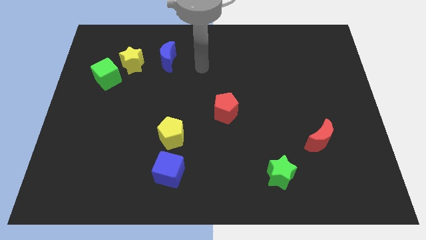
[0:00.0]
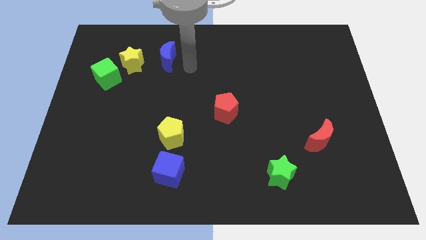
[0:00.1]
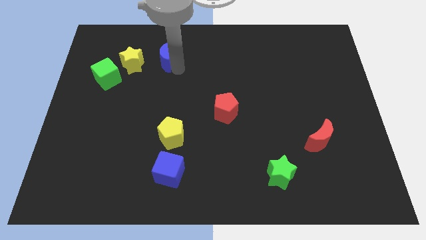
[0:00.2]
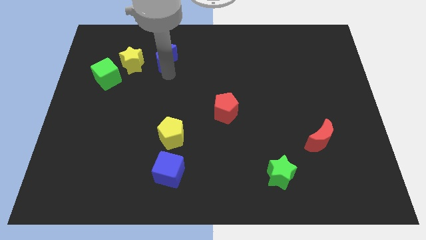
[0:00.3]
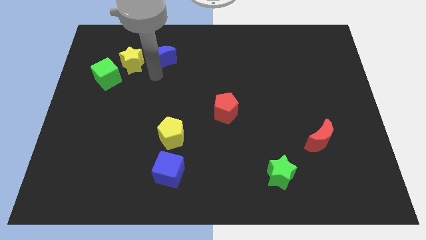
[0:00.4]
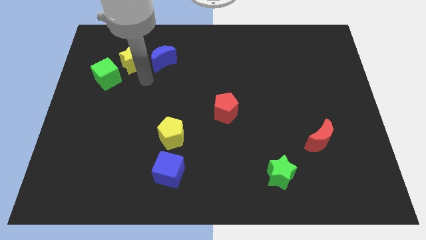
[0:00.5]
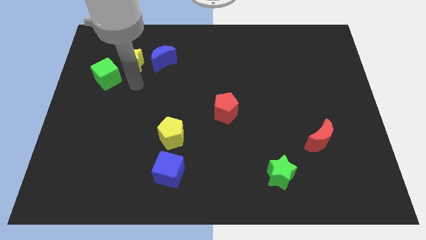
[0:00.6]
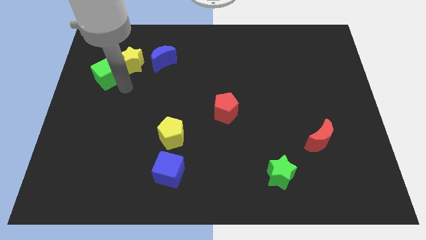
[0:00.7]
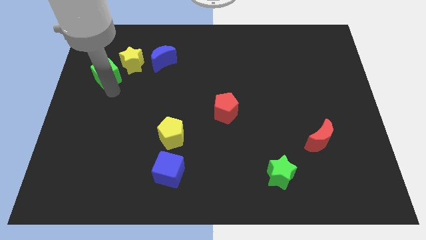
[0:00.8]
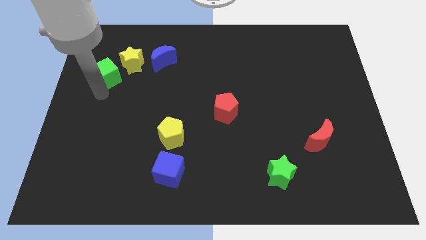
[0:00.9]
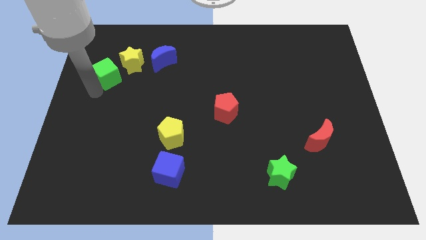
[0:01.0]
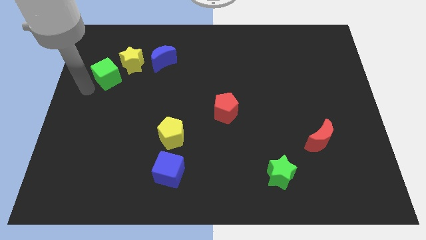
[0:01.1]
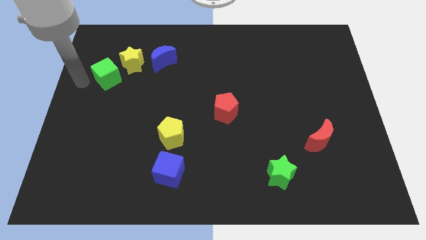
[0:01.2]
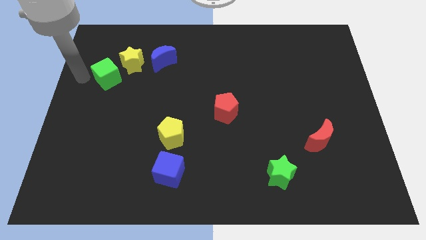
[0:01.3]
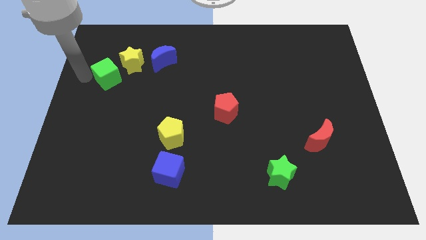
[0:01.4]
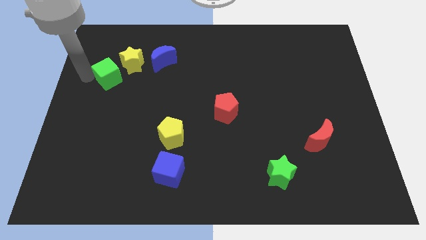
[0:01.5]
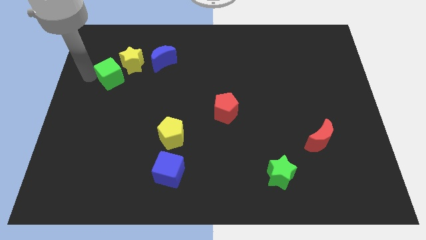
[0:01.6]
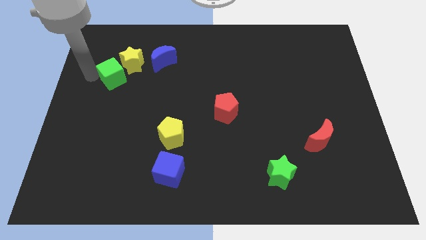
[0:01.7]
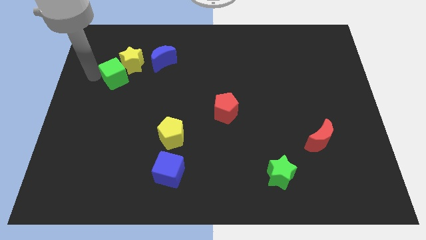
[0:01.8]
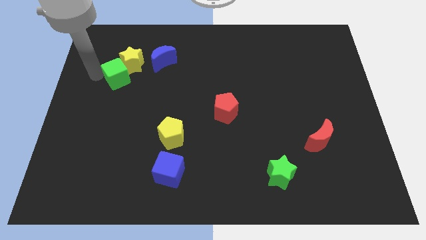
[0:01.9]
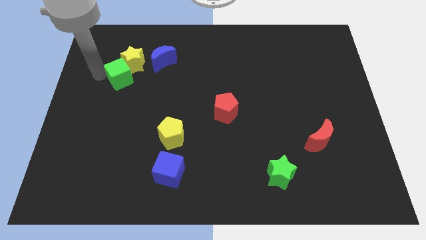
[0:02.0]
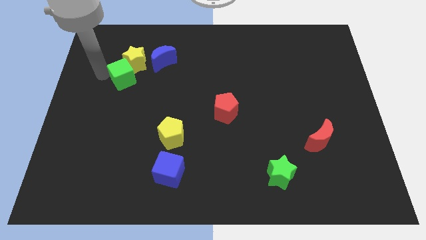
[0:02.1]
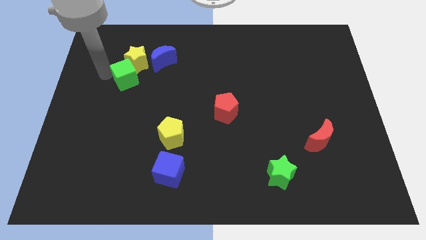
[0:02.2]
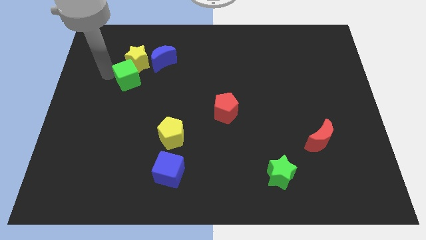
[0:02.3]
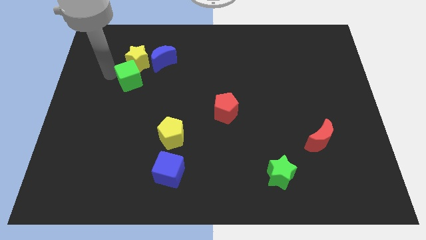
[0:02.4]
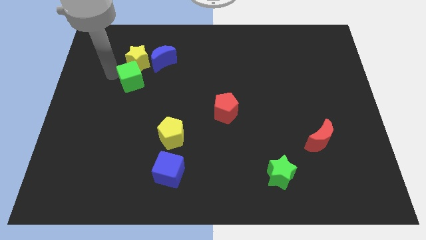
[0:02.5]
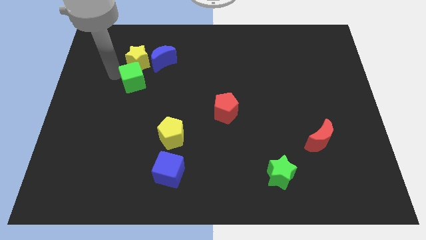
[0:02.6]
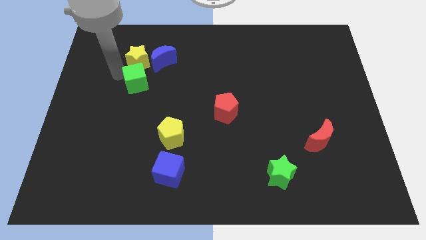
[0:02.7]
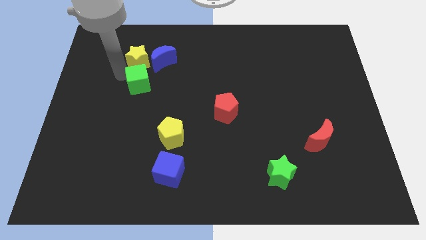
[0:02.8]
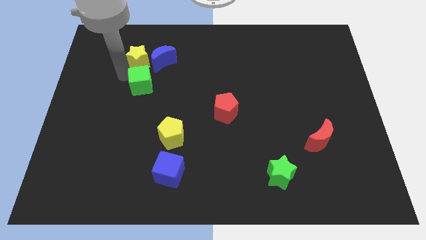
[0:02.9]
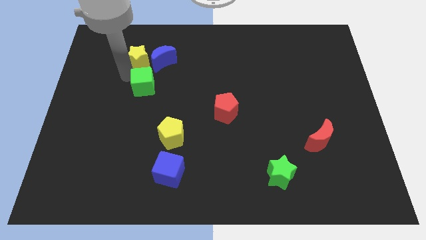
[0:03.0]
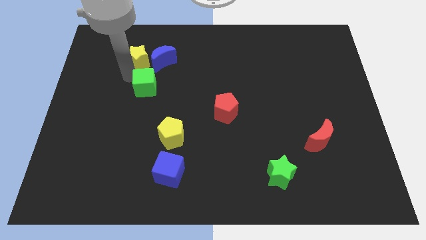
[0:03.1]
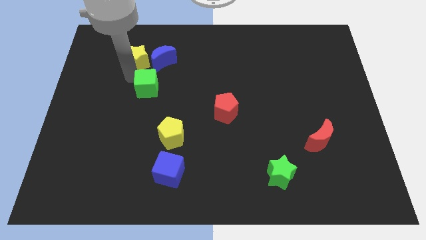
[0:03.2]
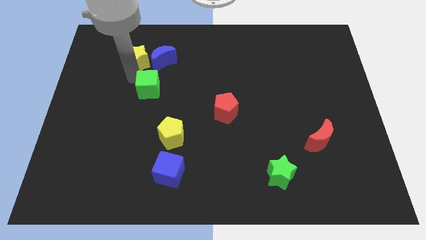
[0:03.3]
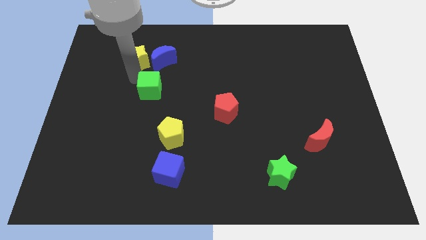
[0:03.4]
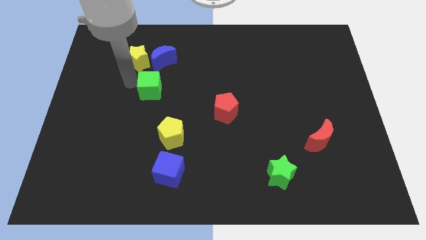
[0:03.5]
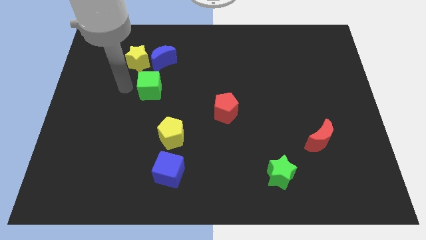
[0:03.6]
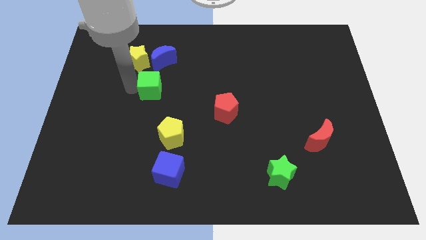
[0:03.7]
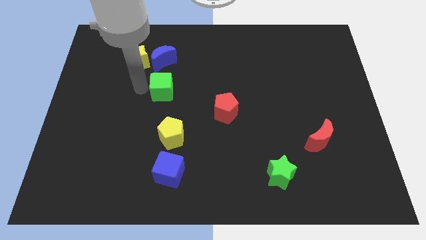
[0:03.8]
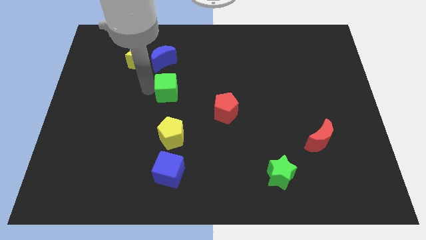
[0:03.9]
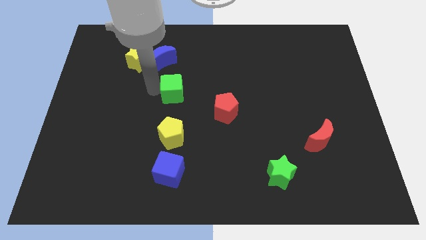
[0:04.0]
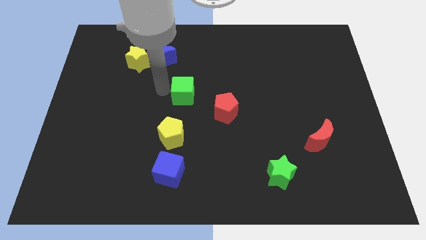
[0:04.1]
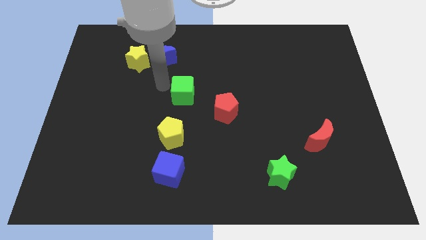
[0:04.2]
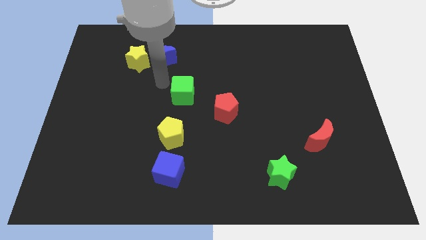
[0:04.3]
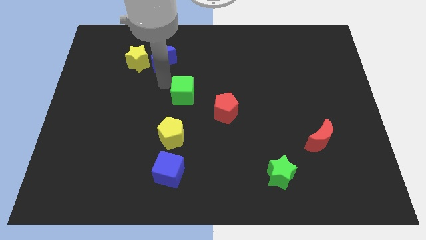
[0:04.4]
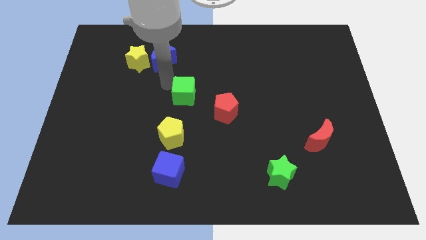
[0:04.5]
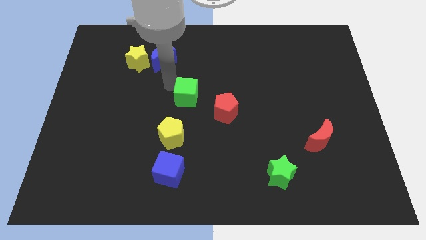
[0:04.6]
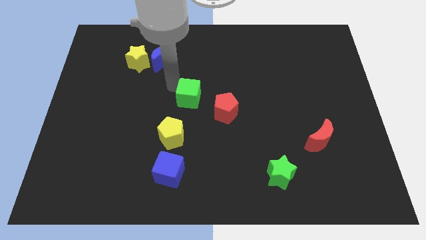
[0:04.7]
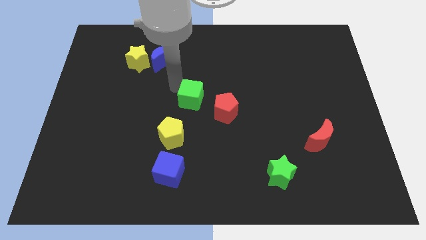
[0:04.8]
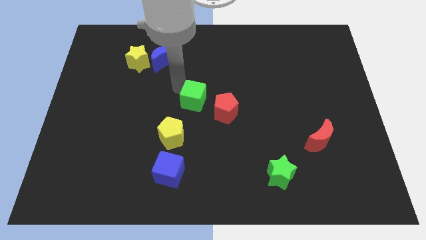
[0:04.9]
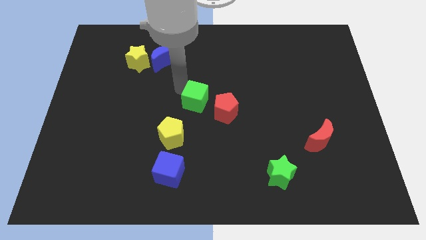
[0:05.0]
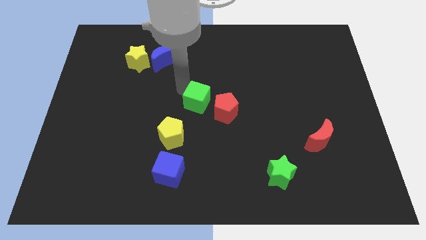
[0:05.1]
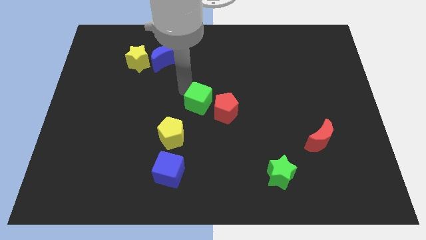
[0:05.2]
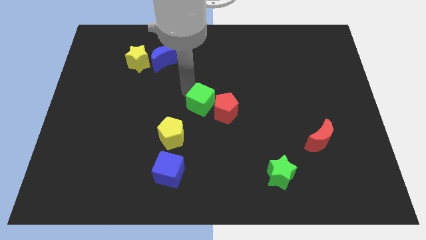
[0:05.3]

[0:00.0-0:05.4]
move the green cube towards the red pentagon

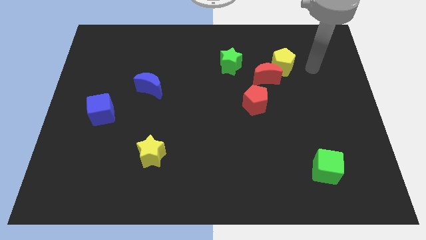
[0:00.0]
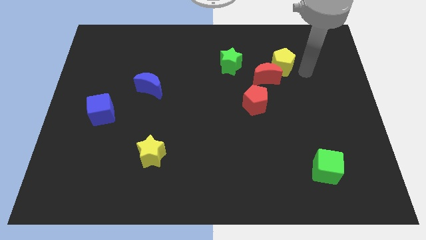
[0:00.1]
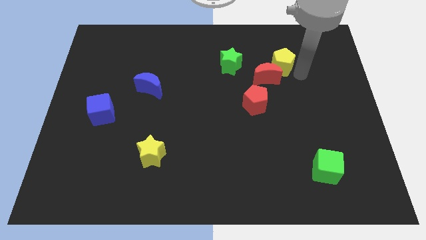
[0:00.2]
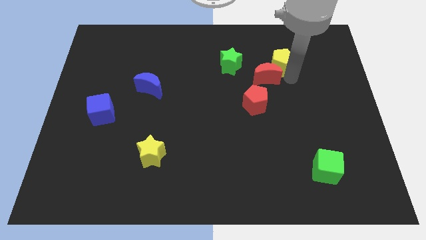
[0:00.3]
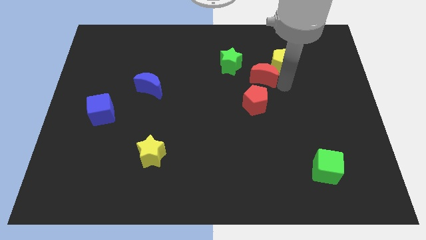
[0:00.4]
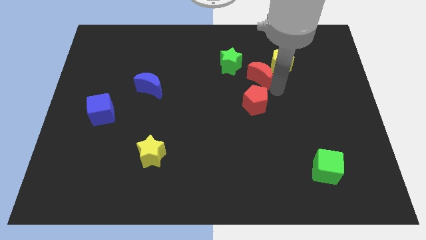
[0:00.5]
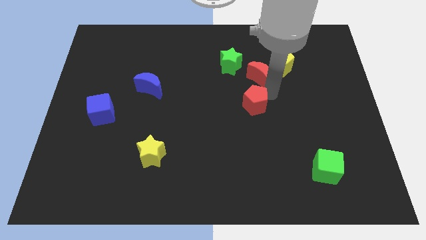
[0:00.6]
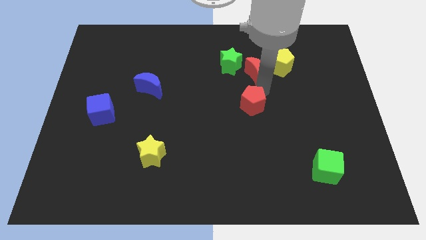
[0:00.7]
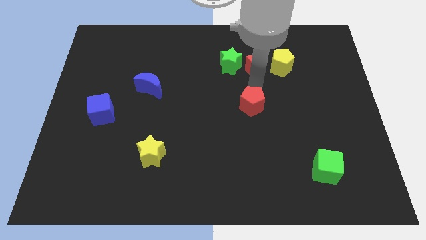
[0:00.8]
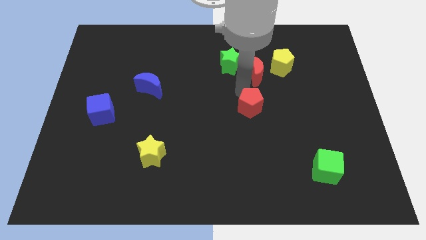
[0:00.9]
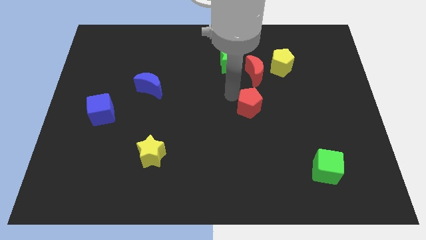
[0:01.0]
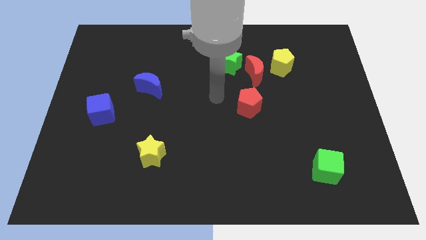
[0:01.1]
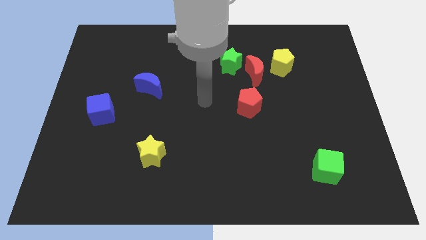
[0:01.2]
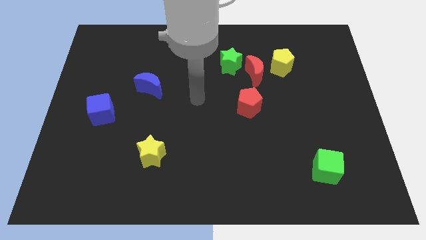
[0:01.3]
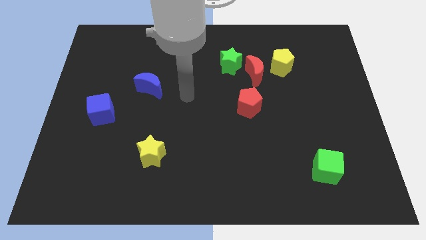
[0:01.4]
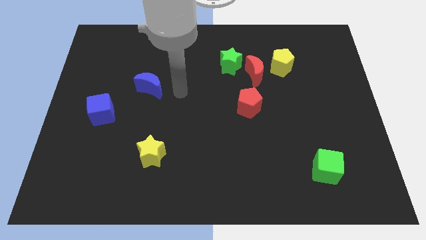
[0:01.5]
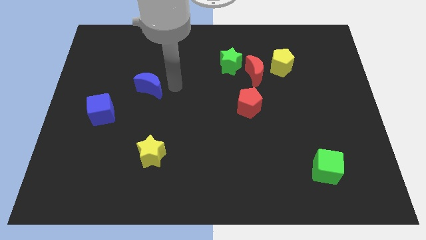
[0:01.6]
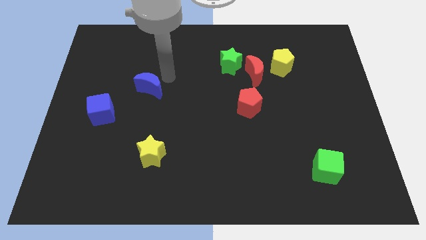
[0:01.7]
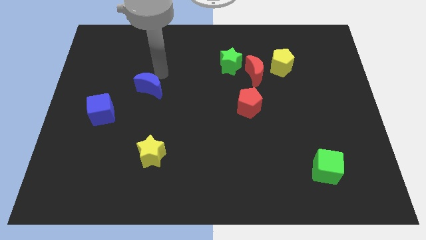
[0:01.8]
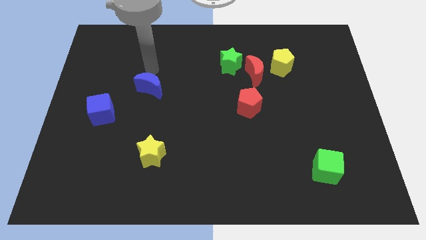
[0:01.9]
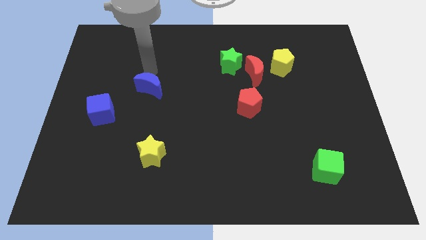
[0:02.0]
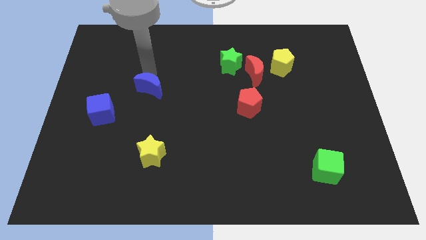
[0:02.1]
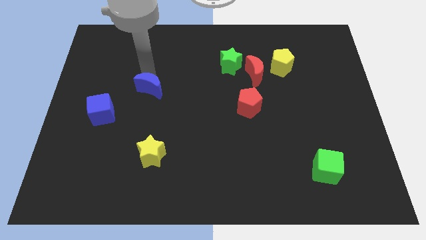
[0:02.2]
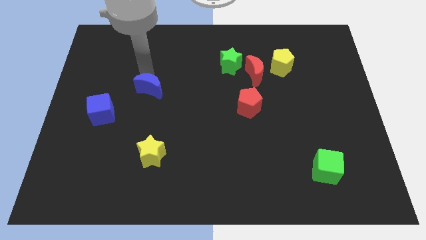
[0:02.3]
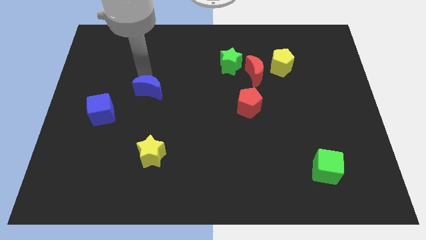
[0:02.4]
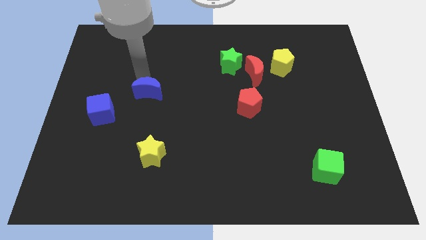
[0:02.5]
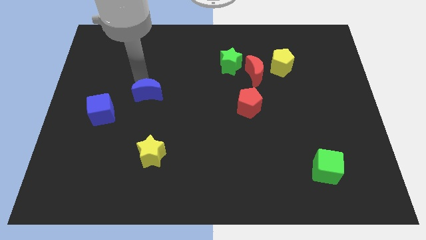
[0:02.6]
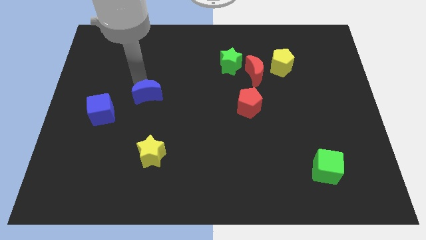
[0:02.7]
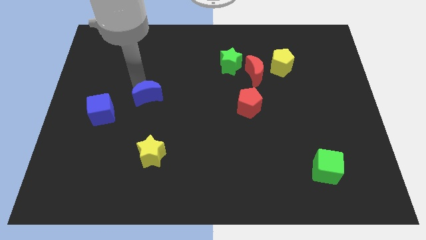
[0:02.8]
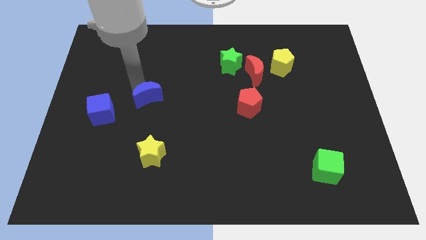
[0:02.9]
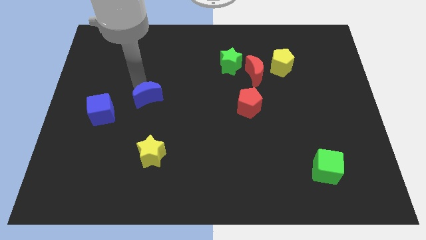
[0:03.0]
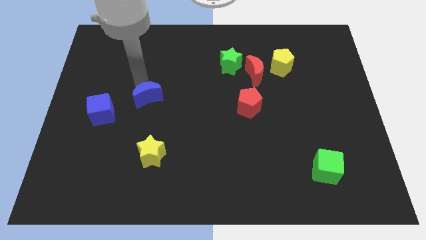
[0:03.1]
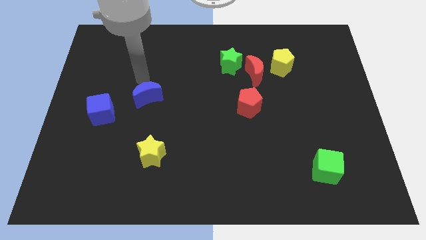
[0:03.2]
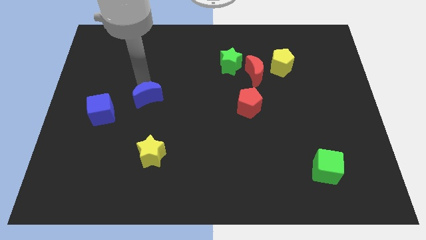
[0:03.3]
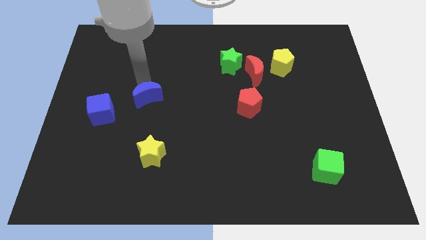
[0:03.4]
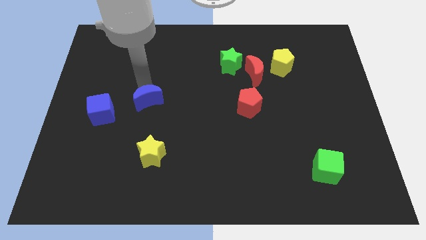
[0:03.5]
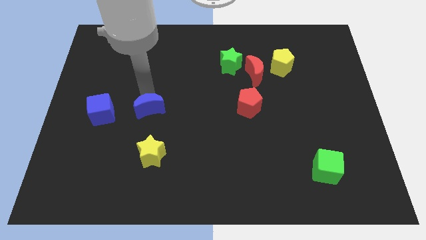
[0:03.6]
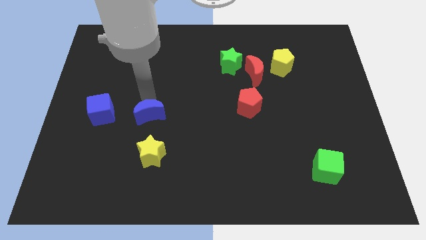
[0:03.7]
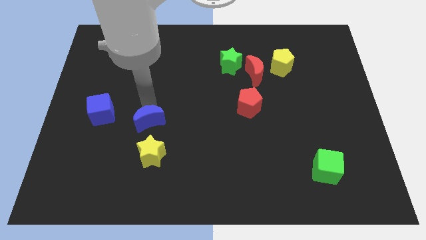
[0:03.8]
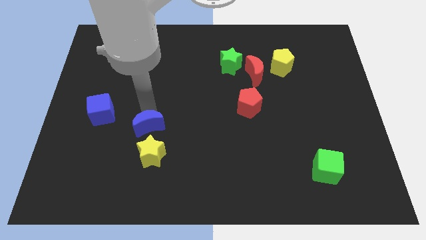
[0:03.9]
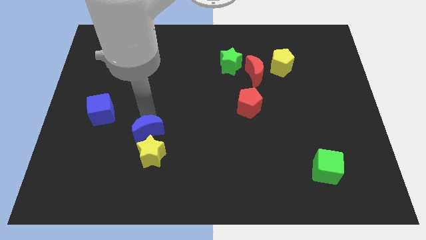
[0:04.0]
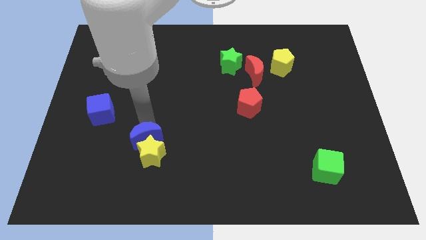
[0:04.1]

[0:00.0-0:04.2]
slide the blue moon towards the yellow star
